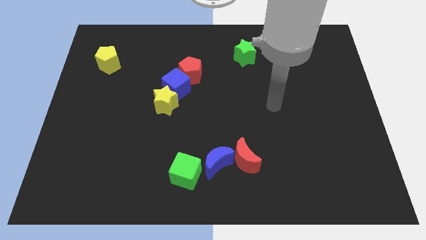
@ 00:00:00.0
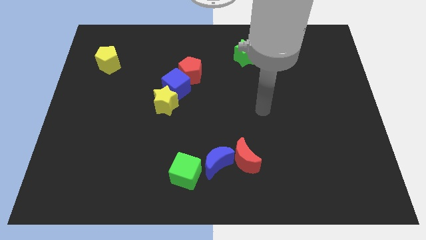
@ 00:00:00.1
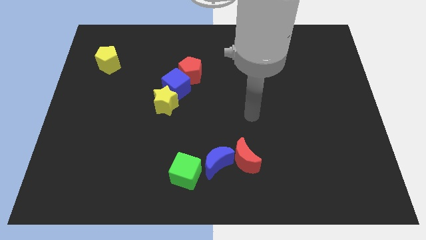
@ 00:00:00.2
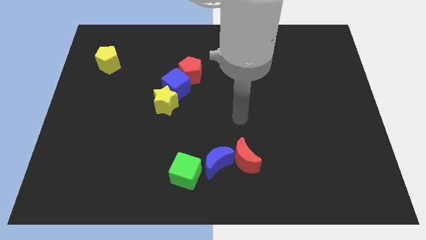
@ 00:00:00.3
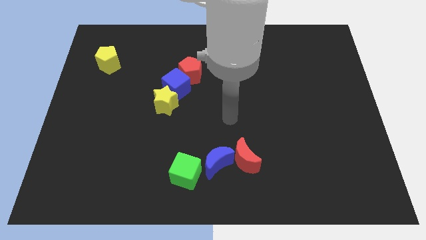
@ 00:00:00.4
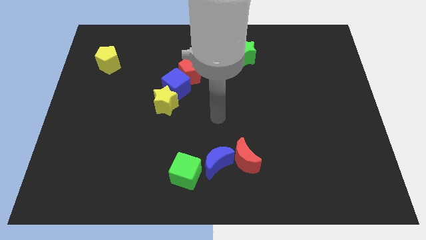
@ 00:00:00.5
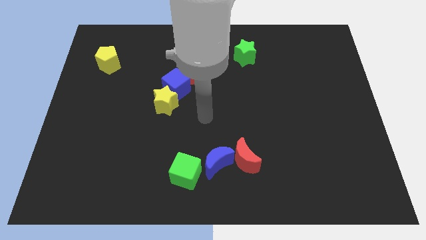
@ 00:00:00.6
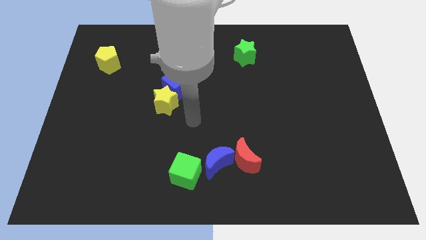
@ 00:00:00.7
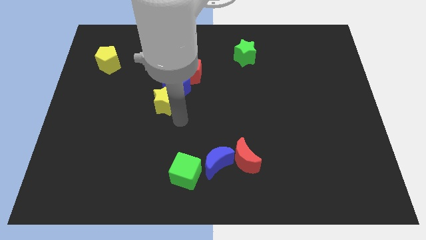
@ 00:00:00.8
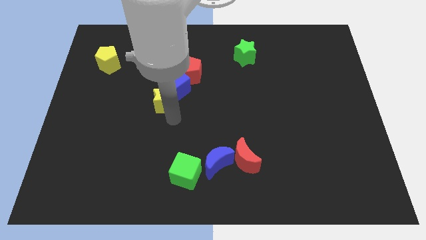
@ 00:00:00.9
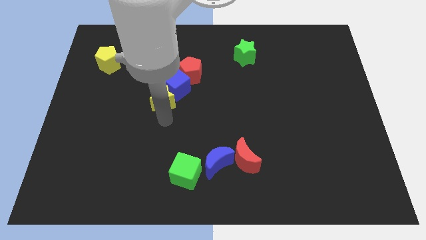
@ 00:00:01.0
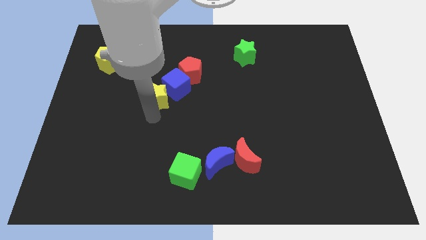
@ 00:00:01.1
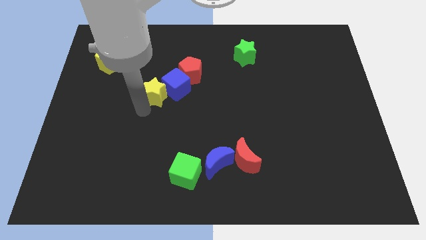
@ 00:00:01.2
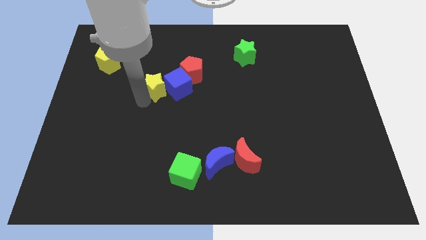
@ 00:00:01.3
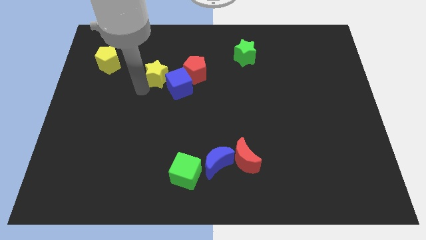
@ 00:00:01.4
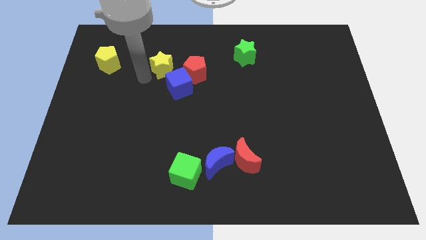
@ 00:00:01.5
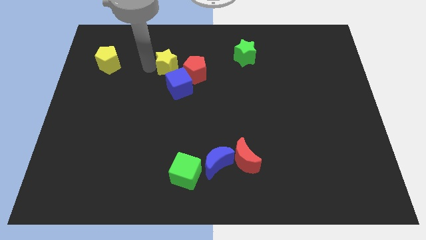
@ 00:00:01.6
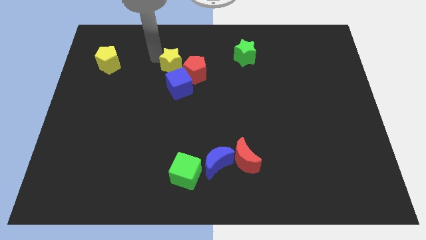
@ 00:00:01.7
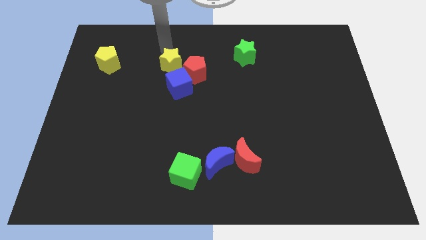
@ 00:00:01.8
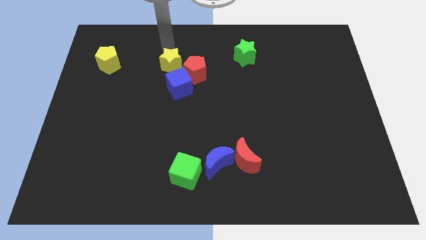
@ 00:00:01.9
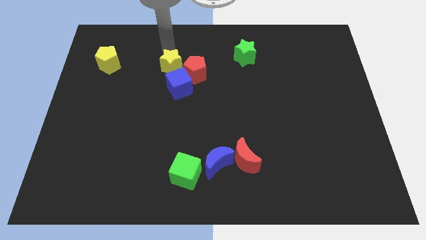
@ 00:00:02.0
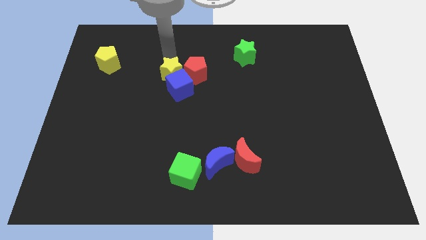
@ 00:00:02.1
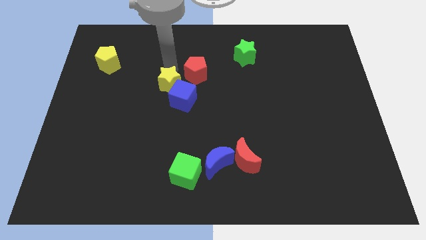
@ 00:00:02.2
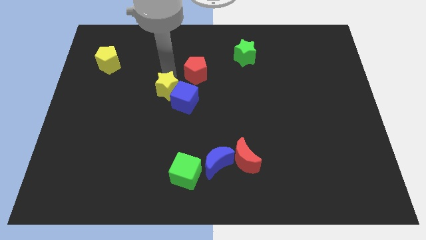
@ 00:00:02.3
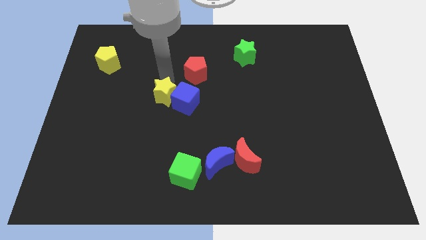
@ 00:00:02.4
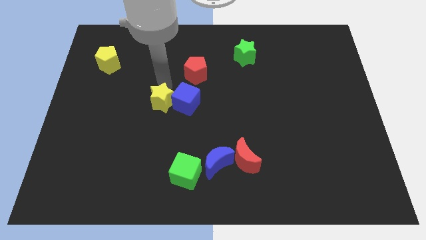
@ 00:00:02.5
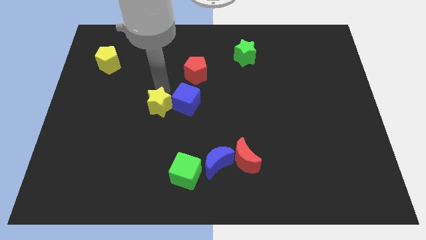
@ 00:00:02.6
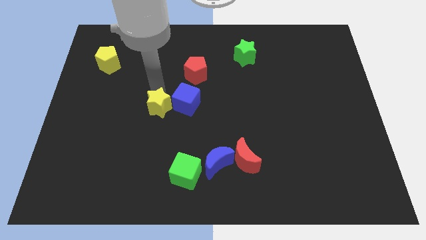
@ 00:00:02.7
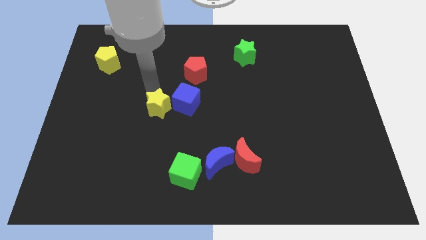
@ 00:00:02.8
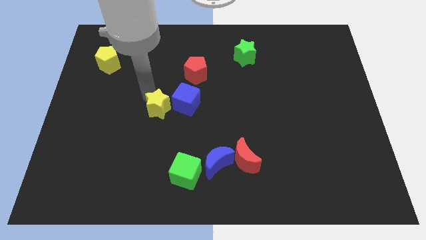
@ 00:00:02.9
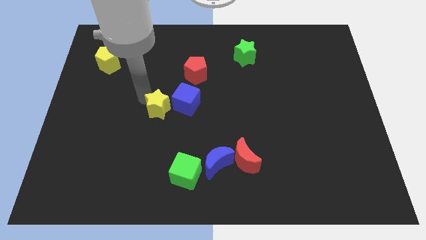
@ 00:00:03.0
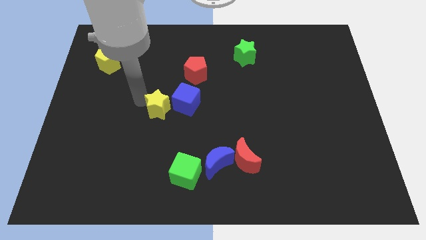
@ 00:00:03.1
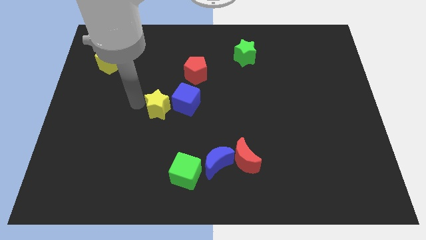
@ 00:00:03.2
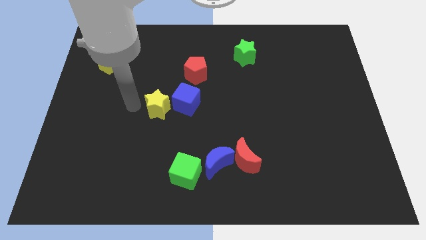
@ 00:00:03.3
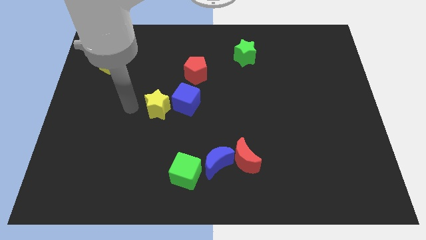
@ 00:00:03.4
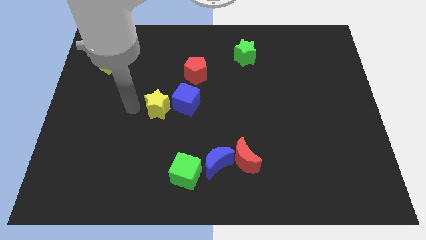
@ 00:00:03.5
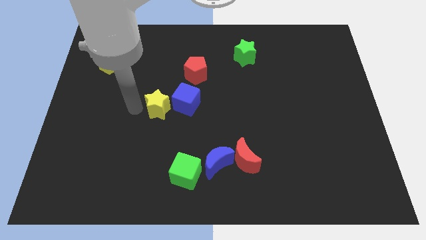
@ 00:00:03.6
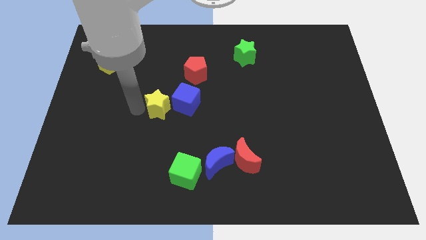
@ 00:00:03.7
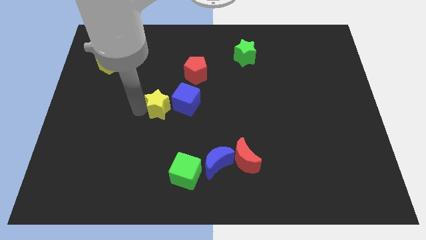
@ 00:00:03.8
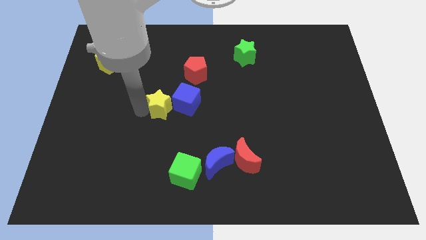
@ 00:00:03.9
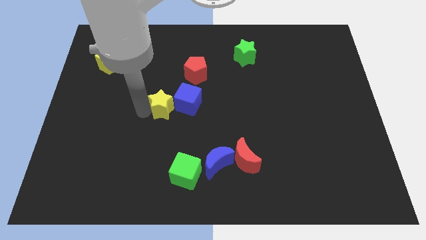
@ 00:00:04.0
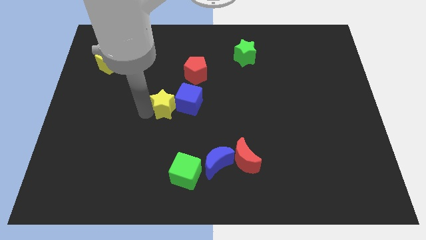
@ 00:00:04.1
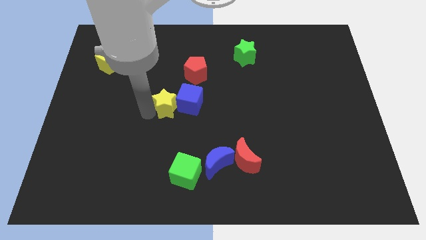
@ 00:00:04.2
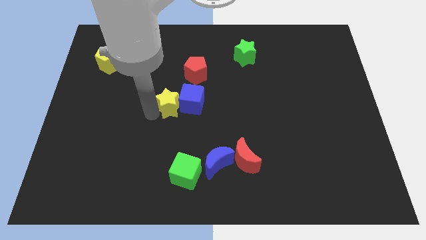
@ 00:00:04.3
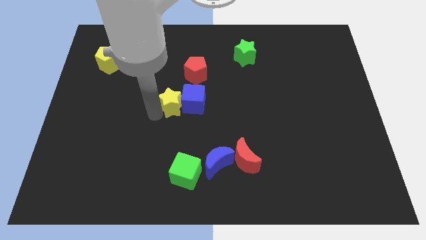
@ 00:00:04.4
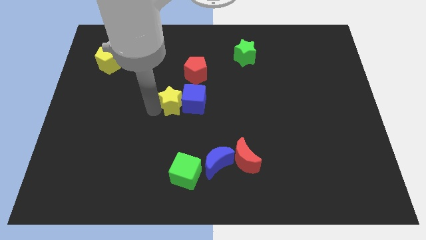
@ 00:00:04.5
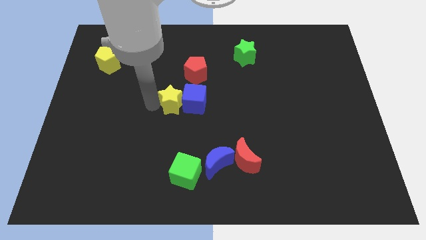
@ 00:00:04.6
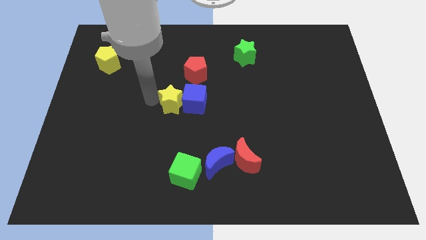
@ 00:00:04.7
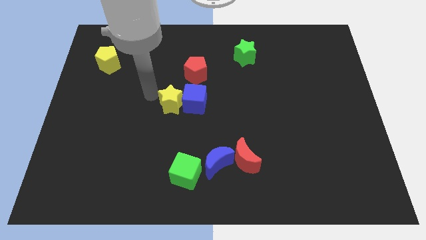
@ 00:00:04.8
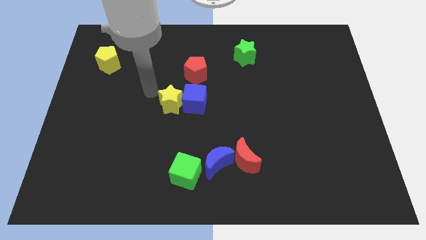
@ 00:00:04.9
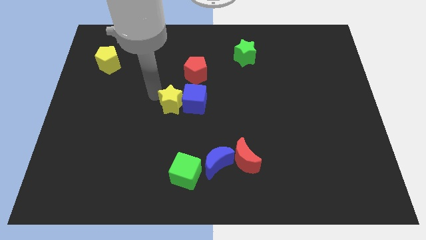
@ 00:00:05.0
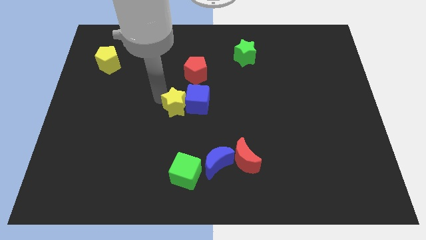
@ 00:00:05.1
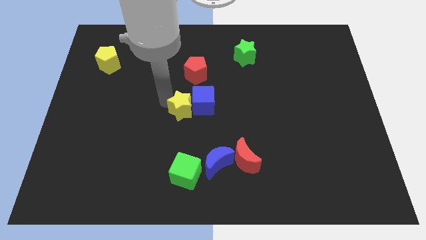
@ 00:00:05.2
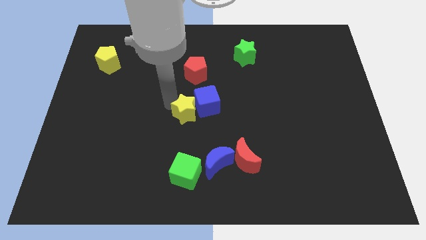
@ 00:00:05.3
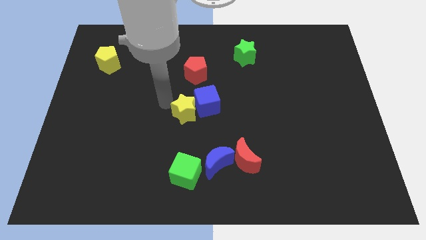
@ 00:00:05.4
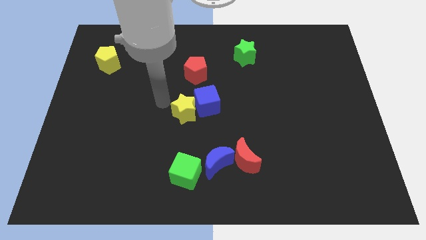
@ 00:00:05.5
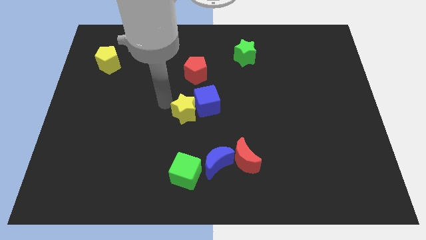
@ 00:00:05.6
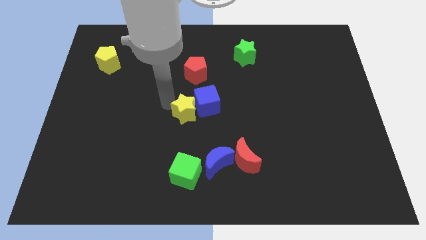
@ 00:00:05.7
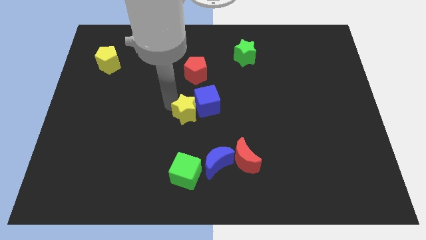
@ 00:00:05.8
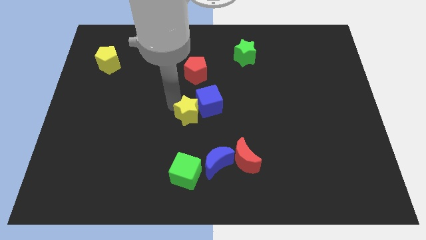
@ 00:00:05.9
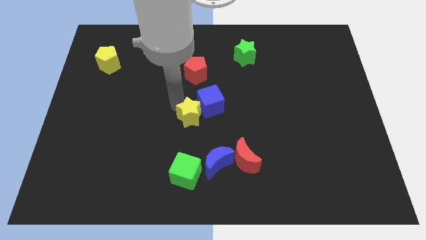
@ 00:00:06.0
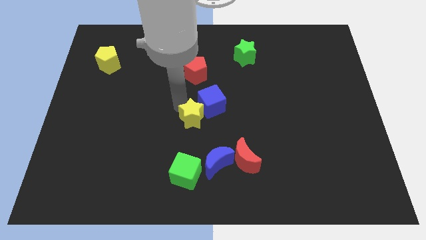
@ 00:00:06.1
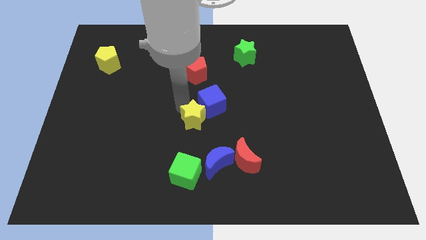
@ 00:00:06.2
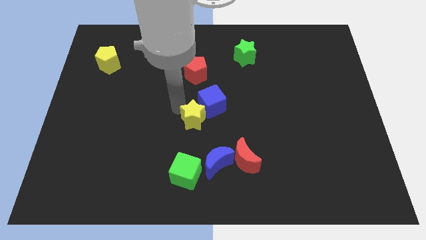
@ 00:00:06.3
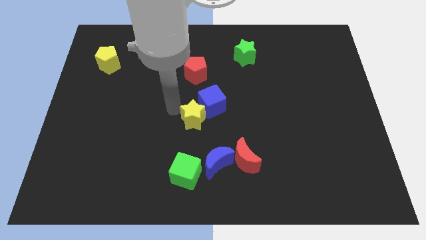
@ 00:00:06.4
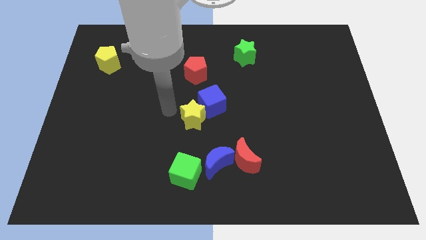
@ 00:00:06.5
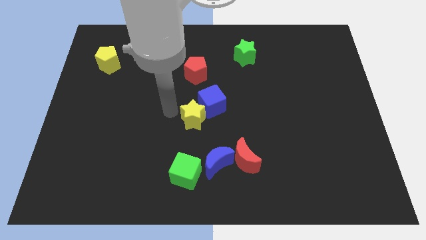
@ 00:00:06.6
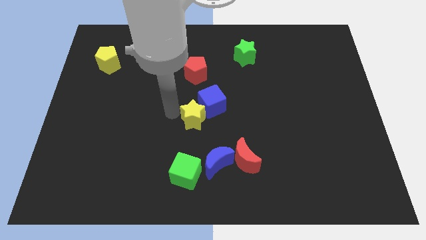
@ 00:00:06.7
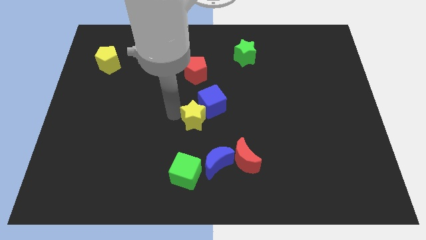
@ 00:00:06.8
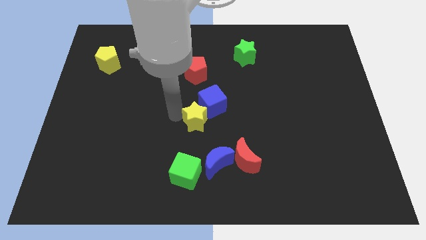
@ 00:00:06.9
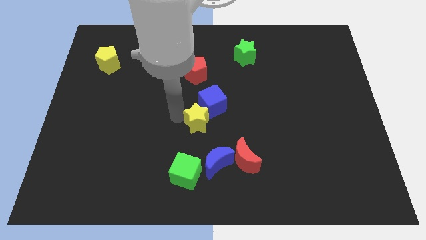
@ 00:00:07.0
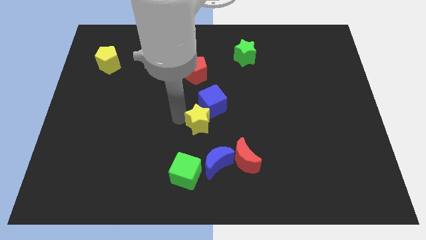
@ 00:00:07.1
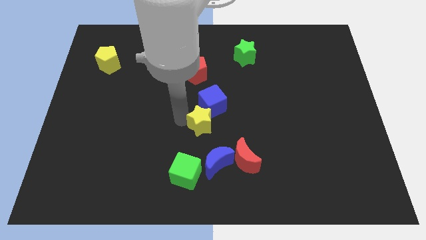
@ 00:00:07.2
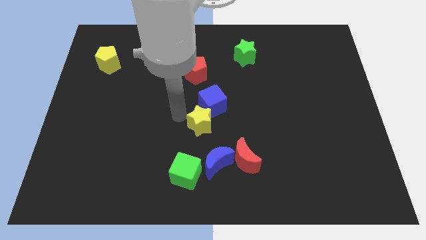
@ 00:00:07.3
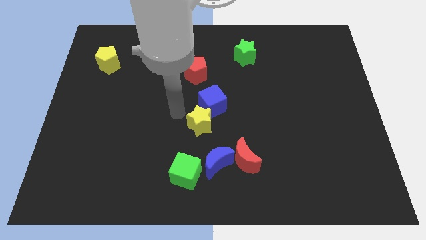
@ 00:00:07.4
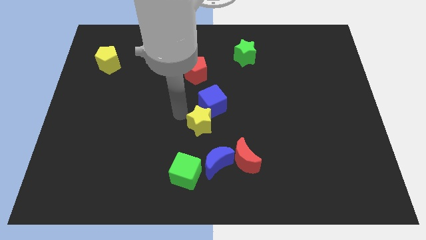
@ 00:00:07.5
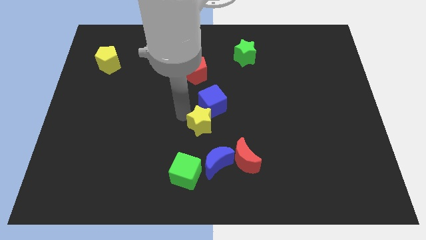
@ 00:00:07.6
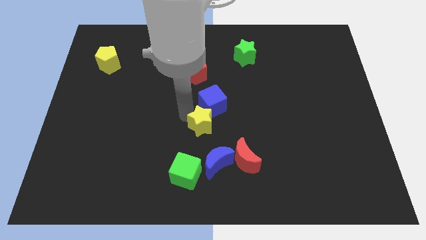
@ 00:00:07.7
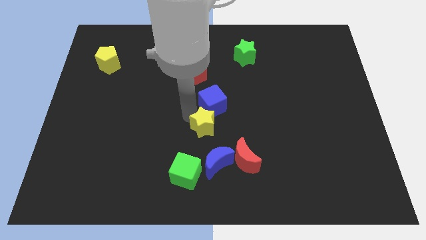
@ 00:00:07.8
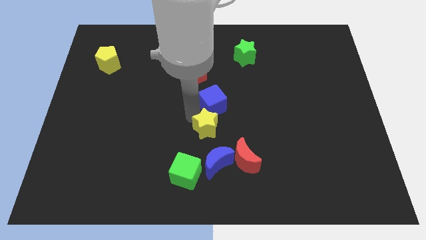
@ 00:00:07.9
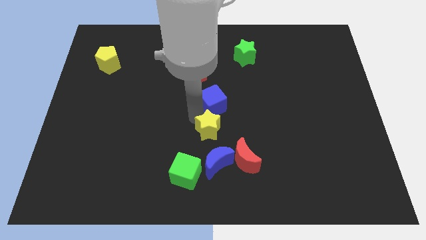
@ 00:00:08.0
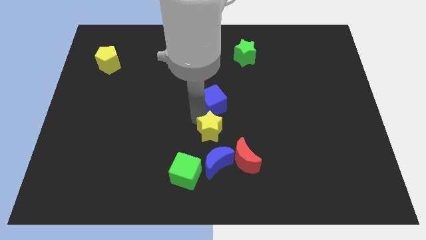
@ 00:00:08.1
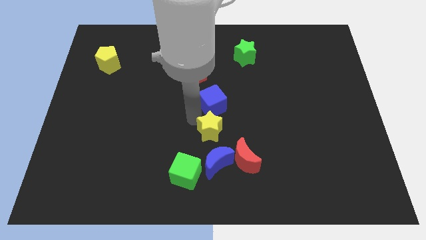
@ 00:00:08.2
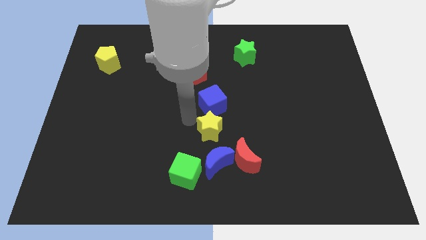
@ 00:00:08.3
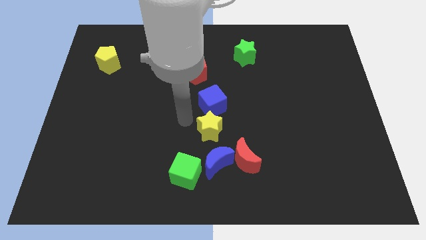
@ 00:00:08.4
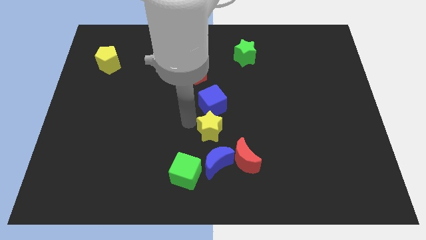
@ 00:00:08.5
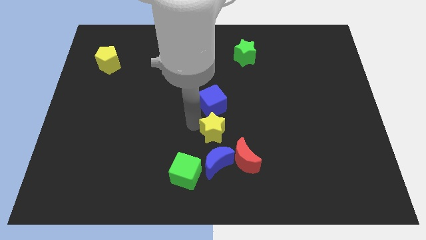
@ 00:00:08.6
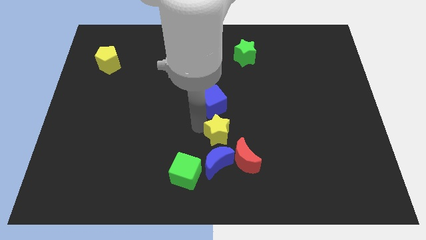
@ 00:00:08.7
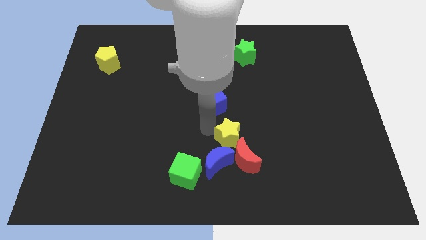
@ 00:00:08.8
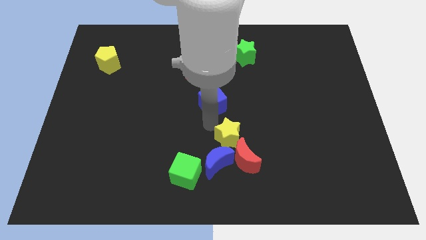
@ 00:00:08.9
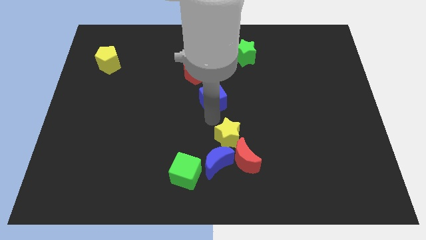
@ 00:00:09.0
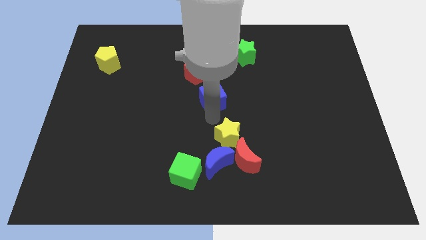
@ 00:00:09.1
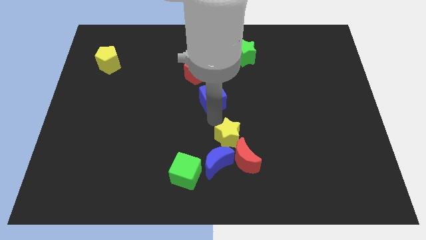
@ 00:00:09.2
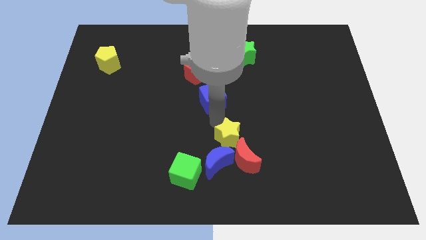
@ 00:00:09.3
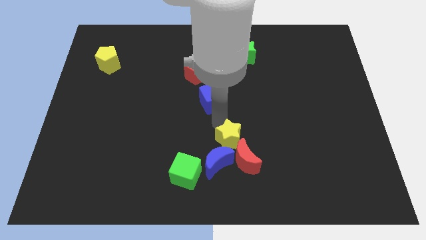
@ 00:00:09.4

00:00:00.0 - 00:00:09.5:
move the yellow star to the red moon
